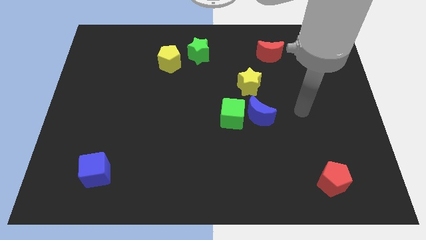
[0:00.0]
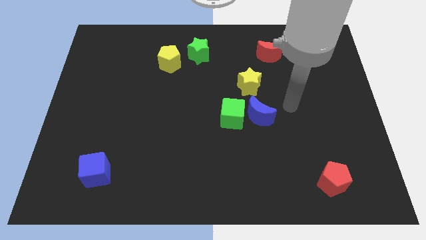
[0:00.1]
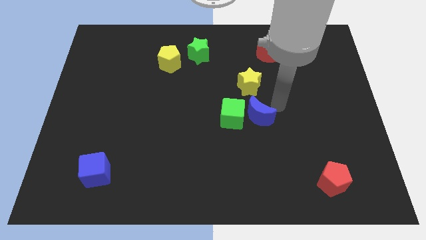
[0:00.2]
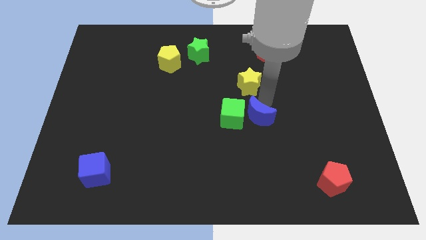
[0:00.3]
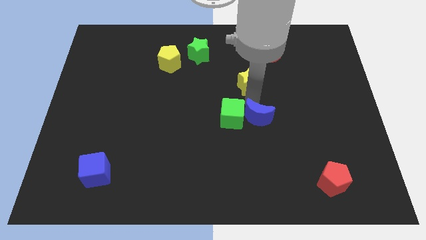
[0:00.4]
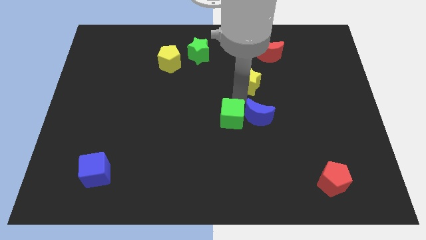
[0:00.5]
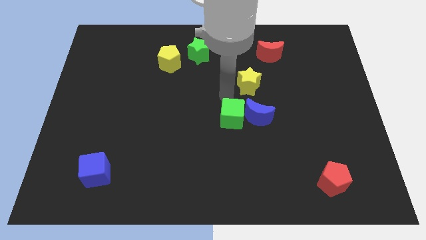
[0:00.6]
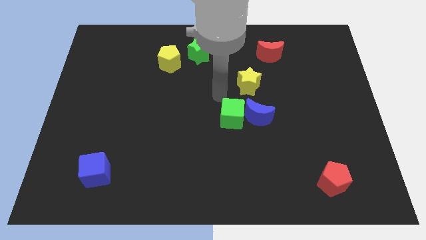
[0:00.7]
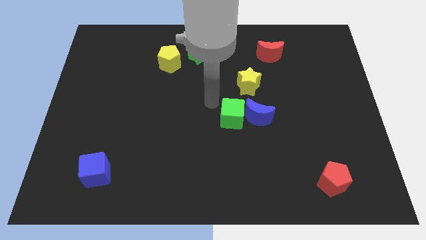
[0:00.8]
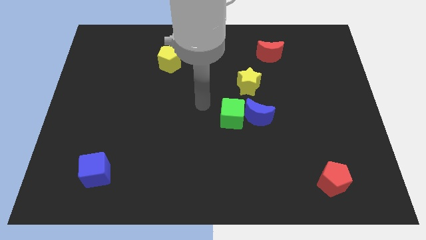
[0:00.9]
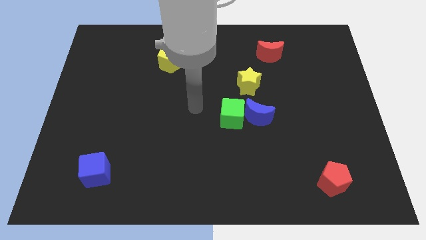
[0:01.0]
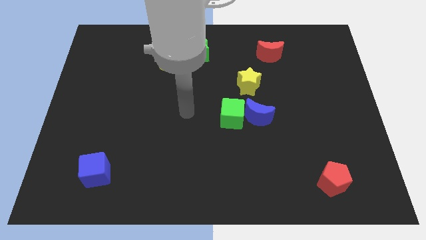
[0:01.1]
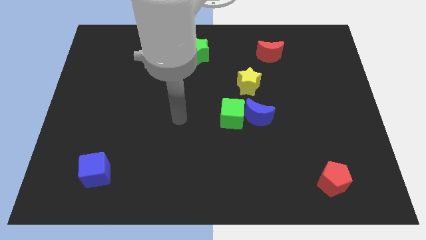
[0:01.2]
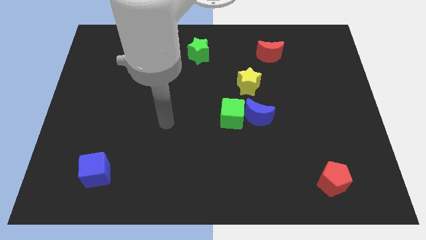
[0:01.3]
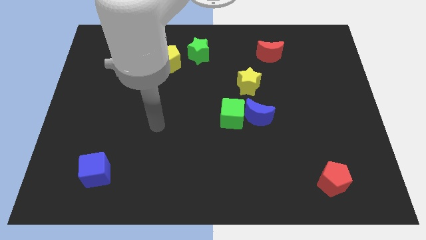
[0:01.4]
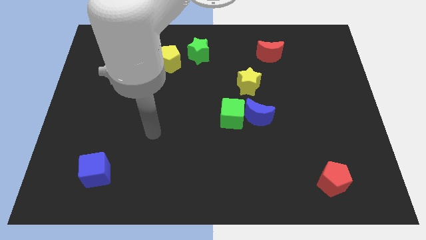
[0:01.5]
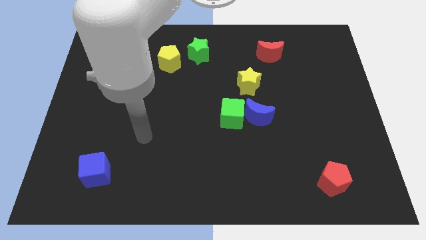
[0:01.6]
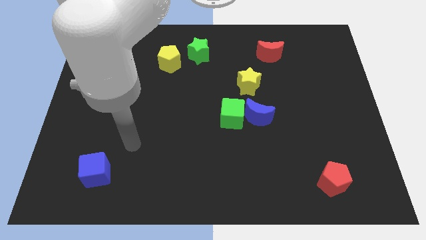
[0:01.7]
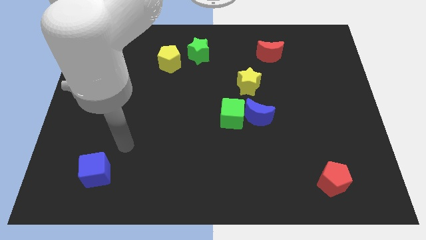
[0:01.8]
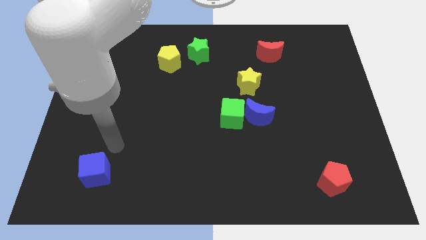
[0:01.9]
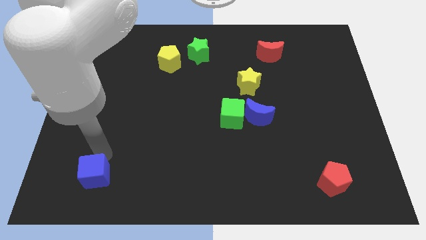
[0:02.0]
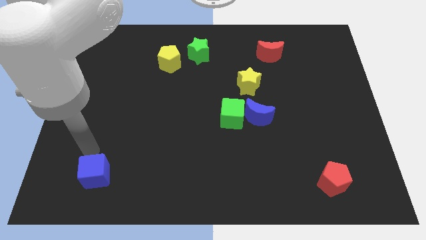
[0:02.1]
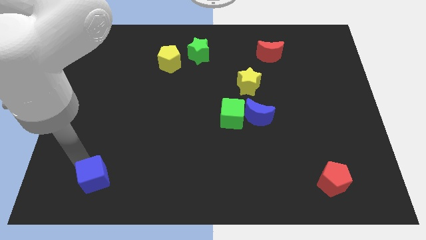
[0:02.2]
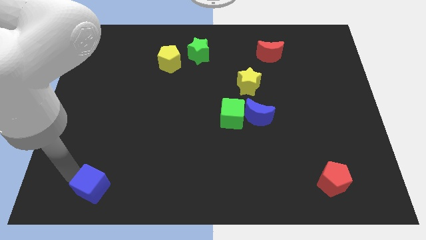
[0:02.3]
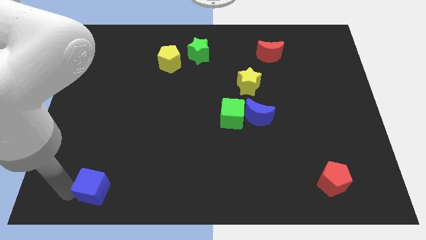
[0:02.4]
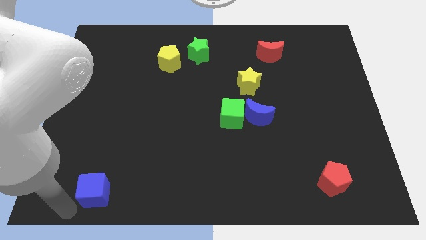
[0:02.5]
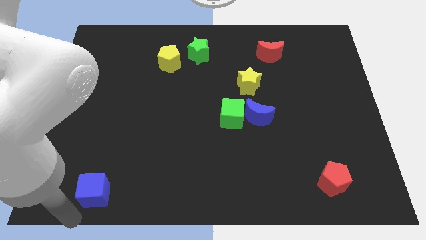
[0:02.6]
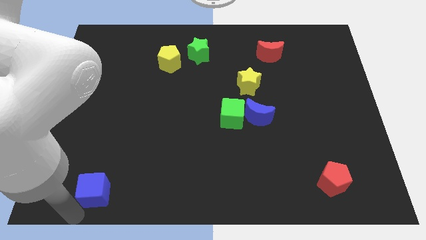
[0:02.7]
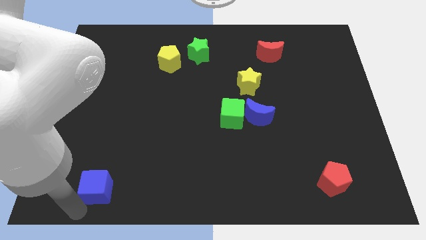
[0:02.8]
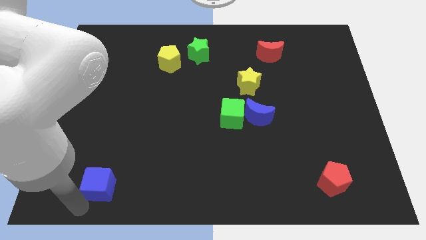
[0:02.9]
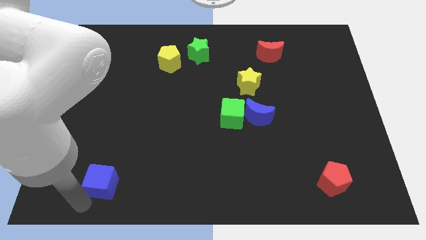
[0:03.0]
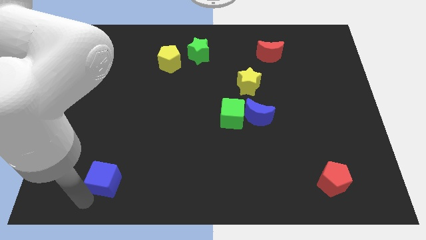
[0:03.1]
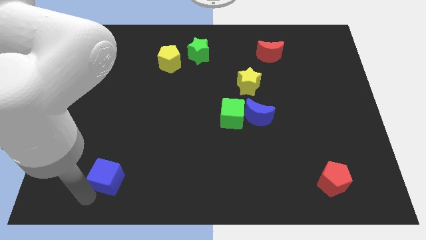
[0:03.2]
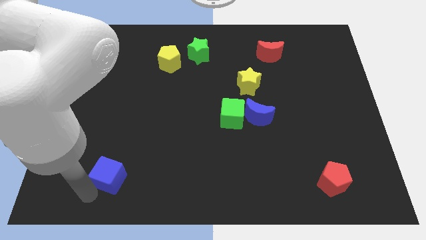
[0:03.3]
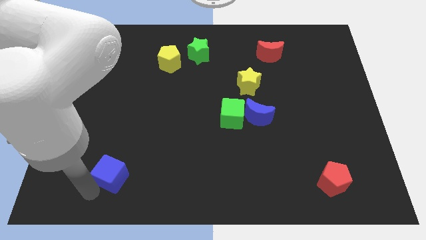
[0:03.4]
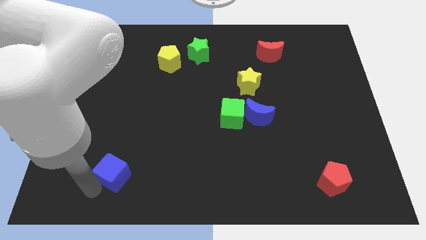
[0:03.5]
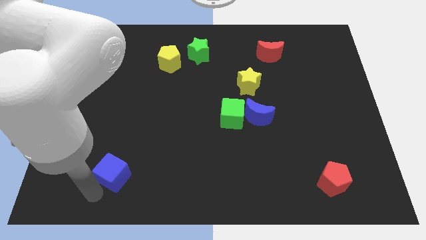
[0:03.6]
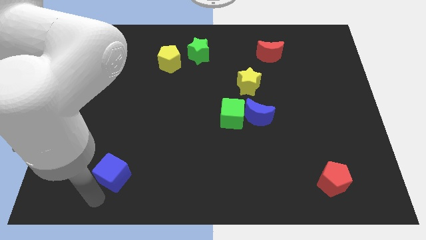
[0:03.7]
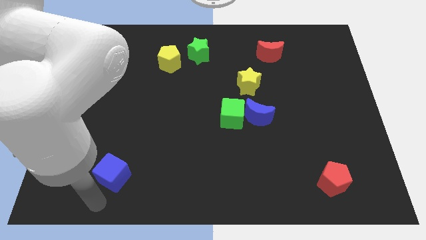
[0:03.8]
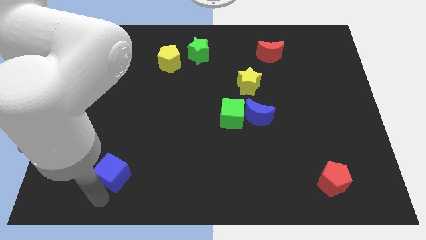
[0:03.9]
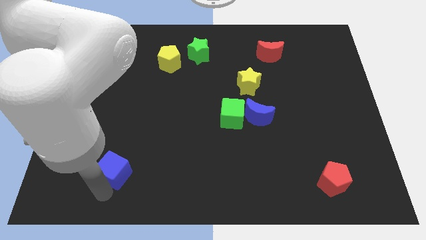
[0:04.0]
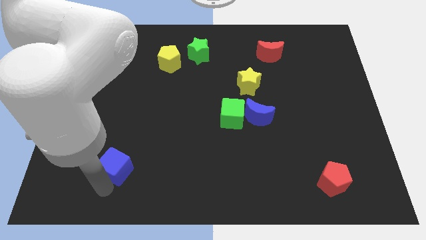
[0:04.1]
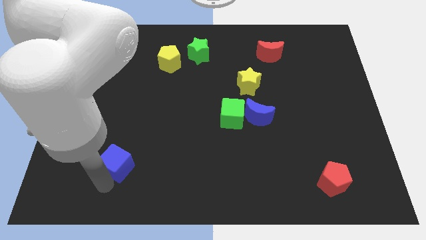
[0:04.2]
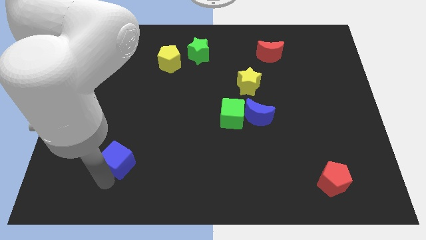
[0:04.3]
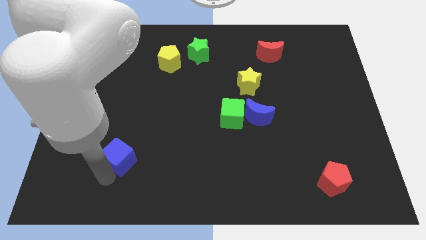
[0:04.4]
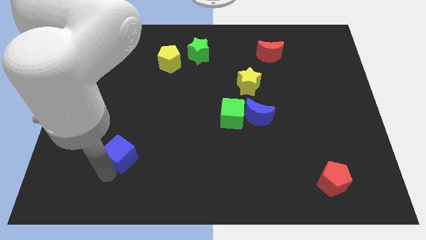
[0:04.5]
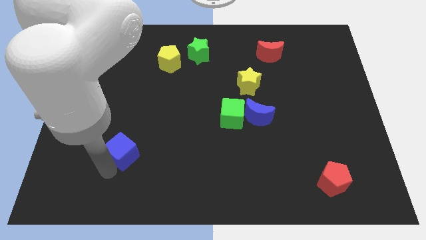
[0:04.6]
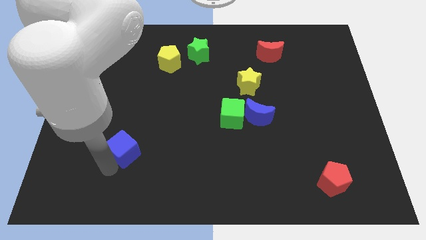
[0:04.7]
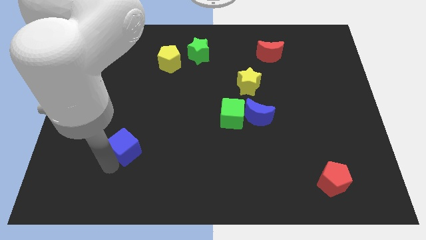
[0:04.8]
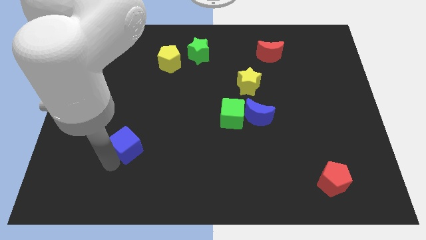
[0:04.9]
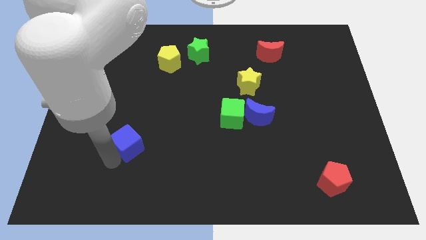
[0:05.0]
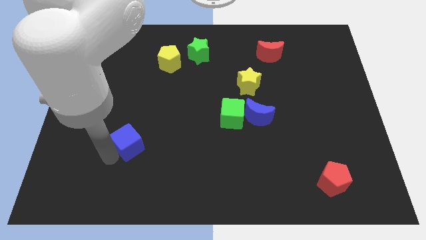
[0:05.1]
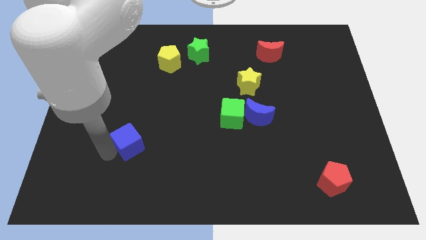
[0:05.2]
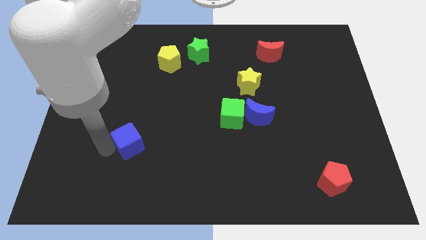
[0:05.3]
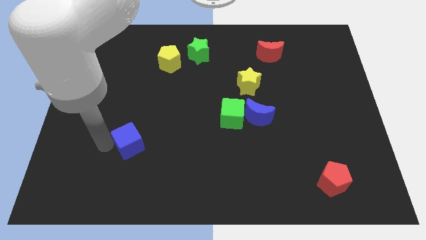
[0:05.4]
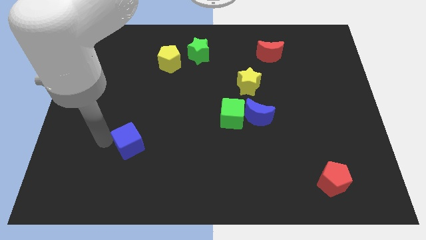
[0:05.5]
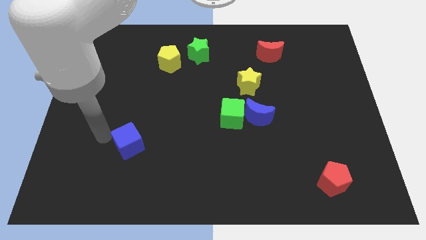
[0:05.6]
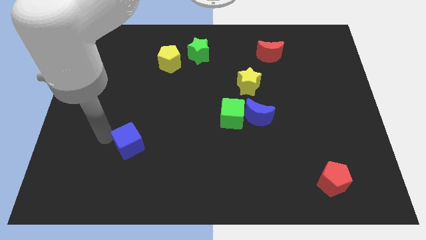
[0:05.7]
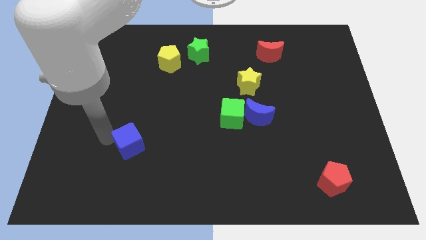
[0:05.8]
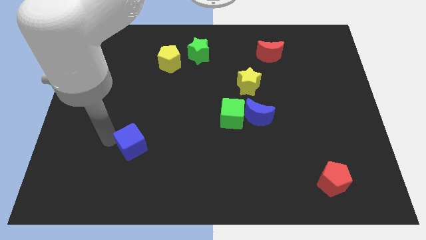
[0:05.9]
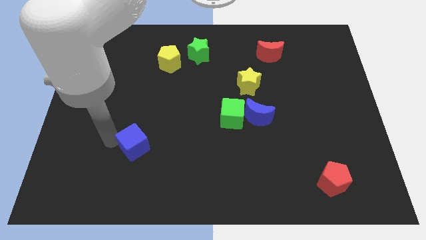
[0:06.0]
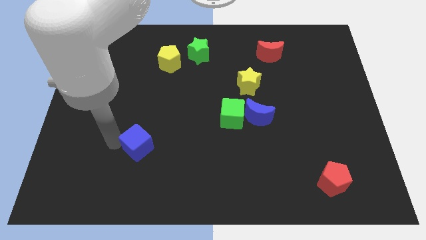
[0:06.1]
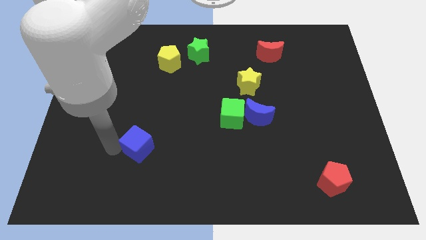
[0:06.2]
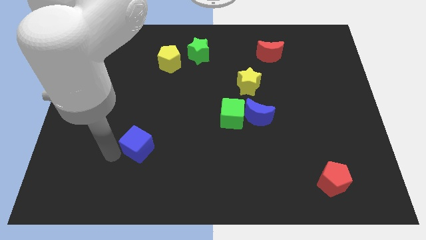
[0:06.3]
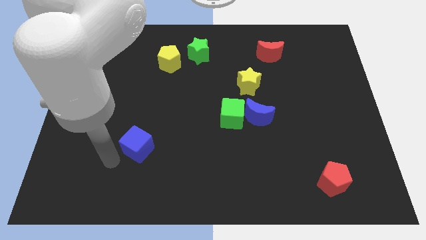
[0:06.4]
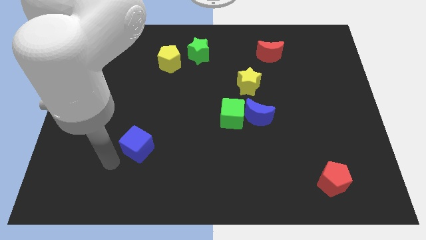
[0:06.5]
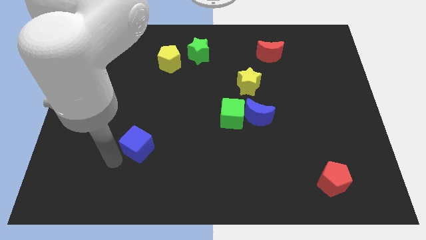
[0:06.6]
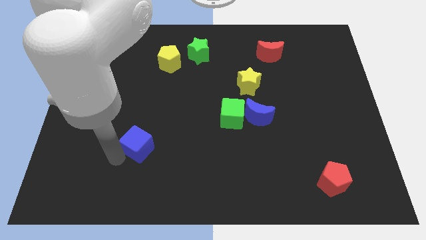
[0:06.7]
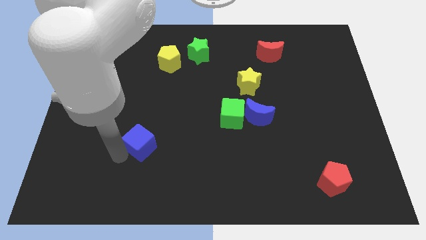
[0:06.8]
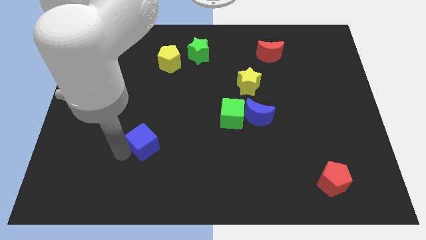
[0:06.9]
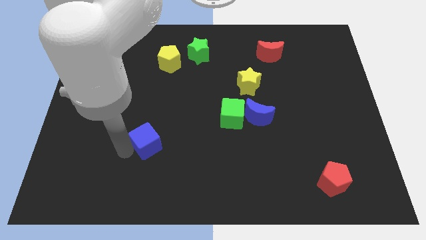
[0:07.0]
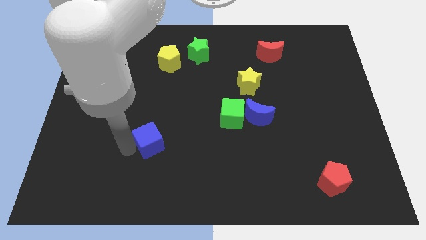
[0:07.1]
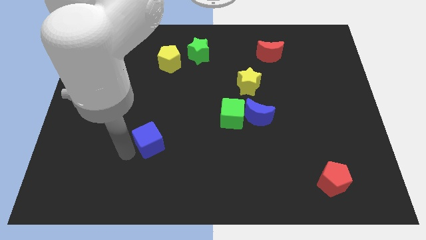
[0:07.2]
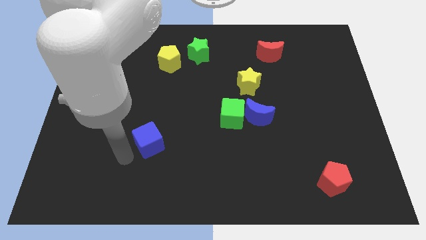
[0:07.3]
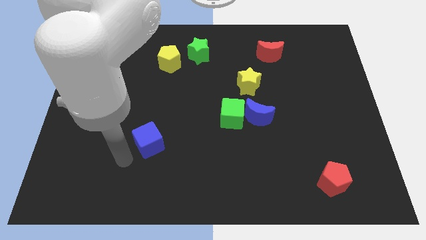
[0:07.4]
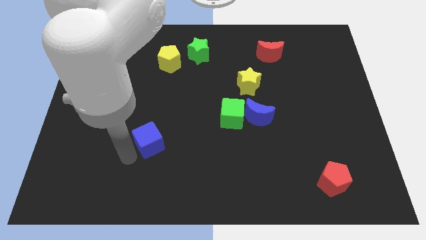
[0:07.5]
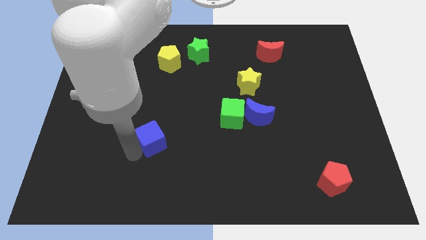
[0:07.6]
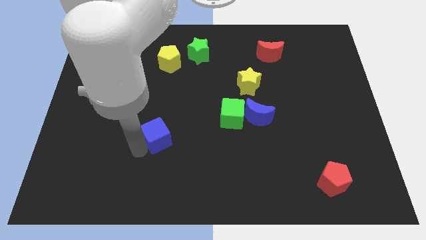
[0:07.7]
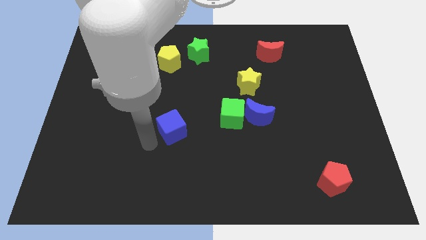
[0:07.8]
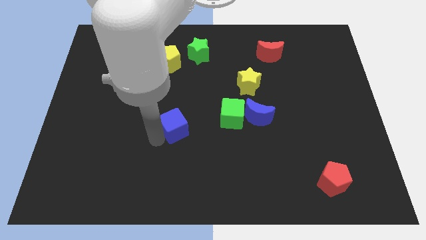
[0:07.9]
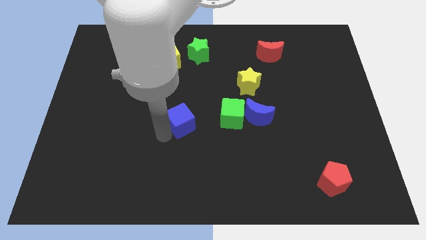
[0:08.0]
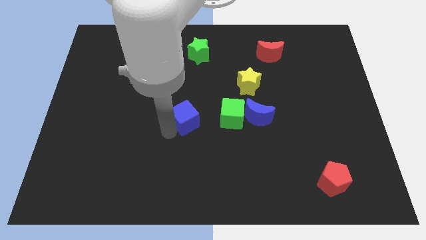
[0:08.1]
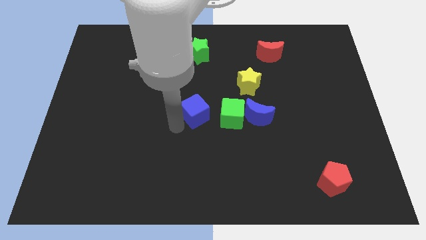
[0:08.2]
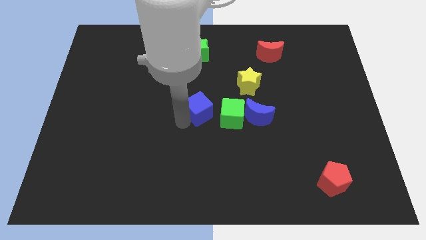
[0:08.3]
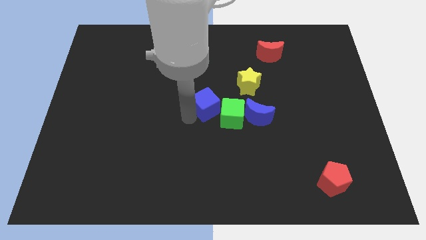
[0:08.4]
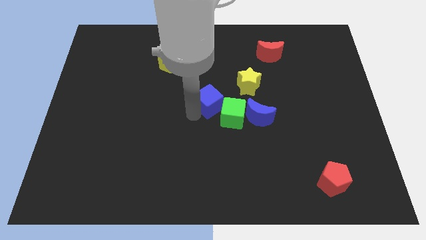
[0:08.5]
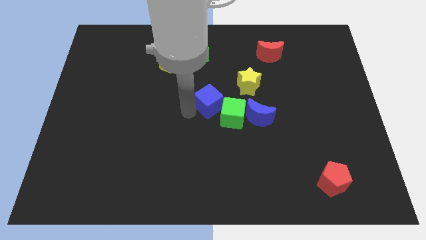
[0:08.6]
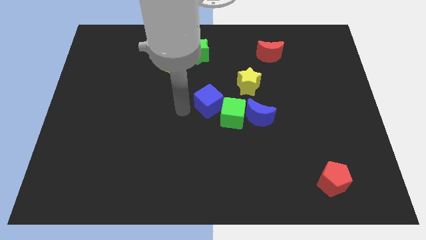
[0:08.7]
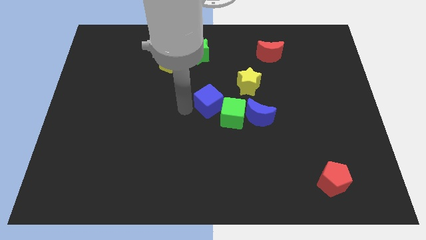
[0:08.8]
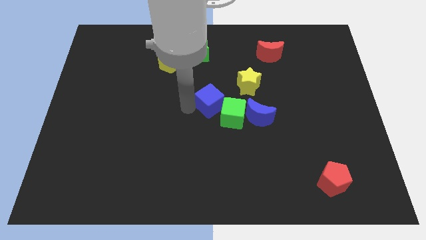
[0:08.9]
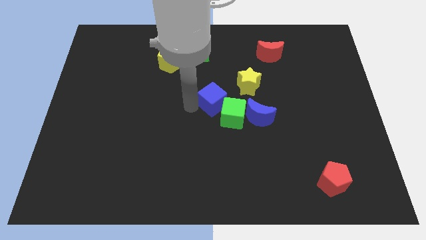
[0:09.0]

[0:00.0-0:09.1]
slide the blue cube to the top left of the blue moon
